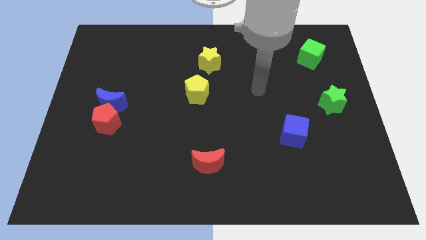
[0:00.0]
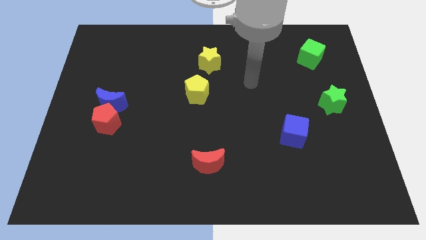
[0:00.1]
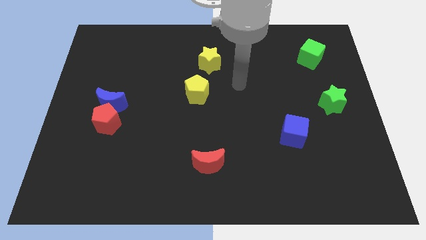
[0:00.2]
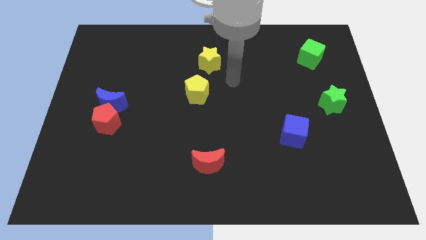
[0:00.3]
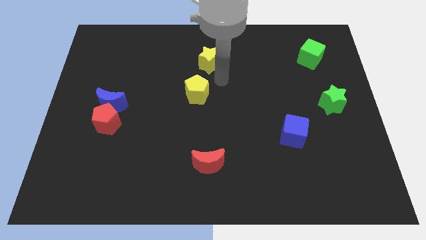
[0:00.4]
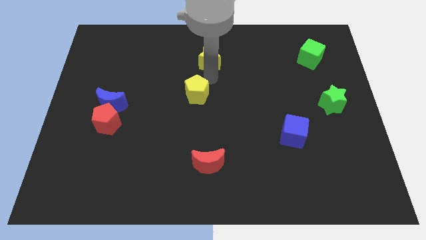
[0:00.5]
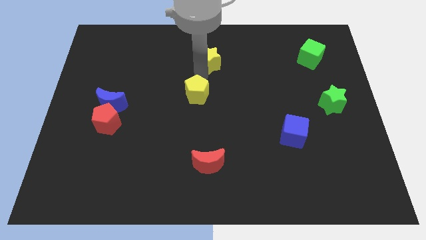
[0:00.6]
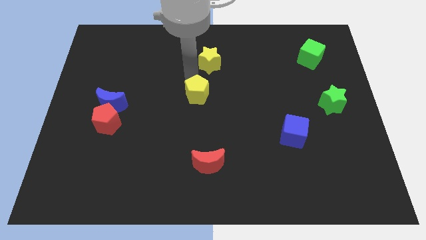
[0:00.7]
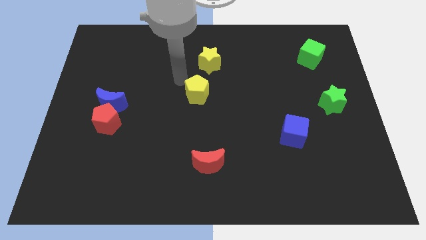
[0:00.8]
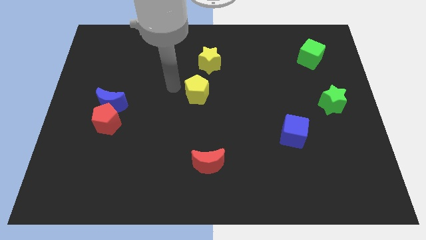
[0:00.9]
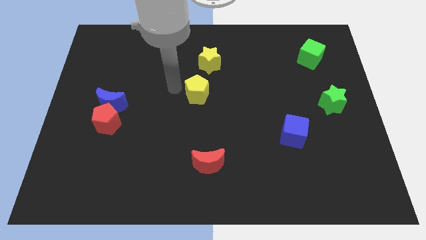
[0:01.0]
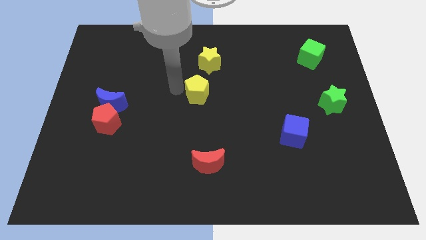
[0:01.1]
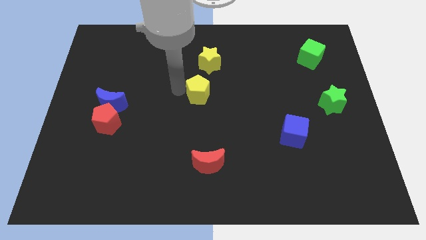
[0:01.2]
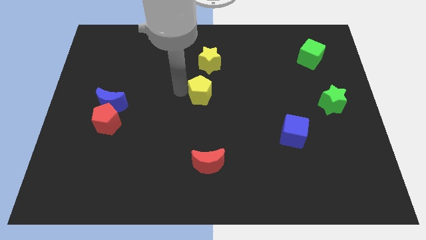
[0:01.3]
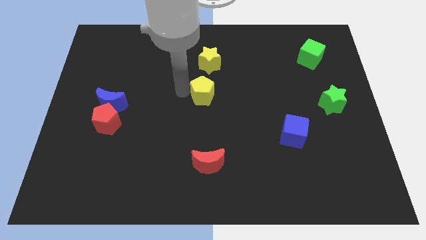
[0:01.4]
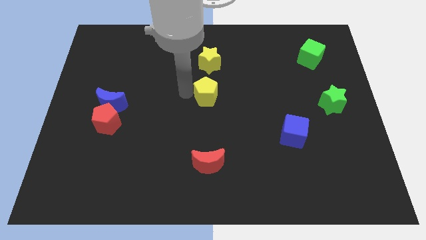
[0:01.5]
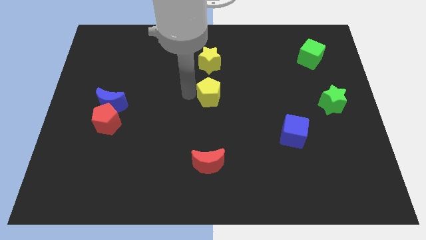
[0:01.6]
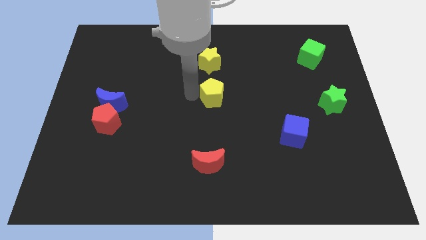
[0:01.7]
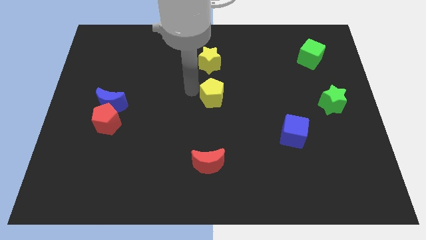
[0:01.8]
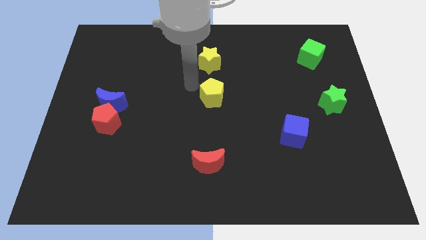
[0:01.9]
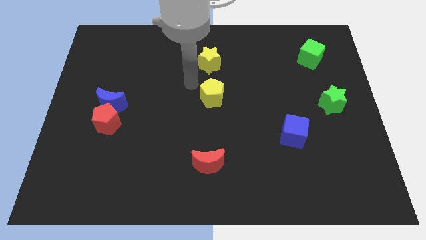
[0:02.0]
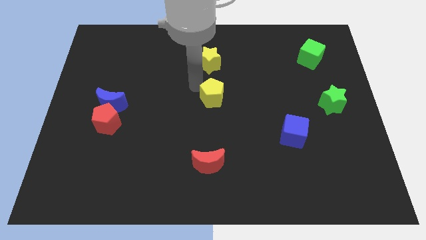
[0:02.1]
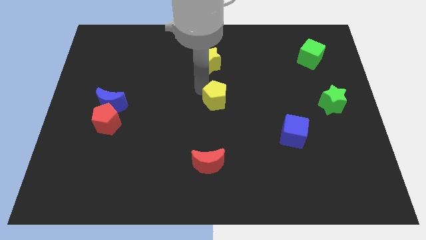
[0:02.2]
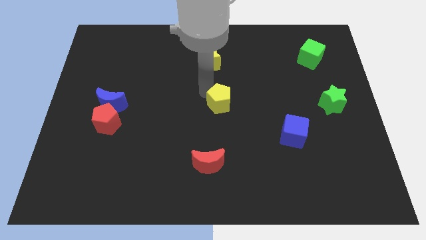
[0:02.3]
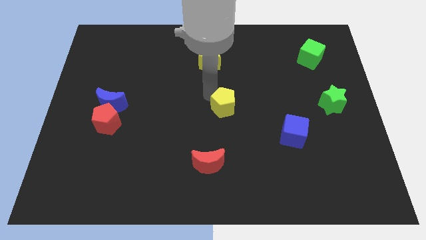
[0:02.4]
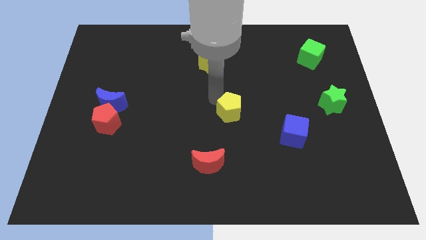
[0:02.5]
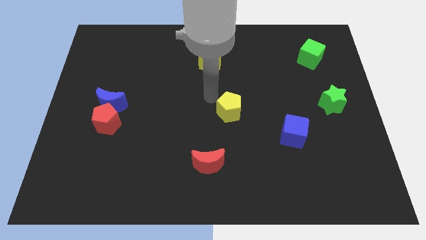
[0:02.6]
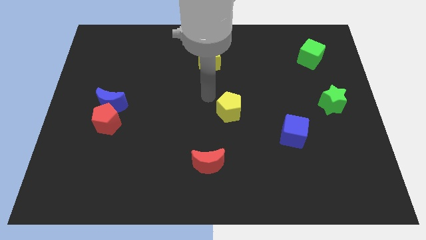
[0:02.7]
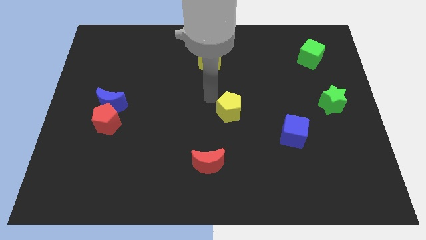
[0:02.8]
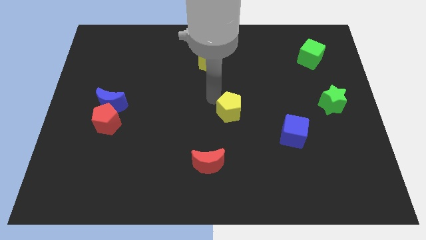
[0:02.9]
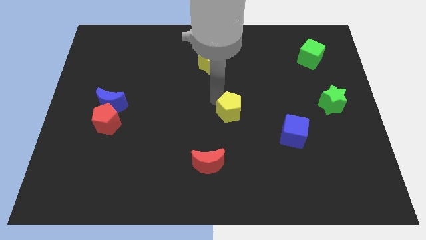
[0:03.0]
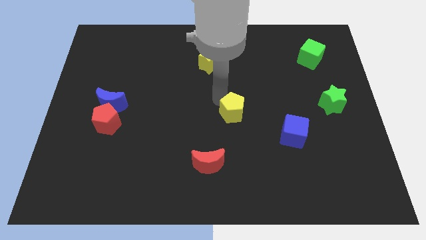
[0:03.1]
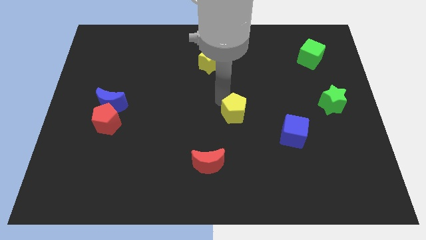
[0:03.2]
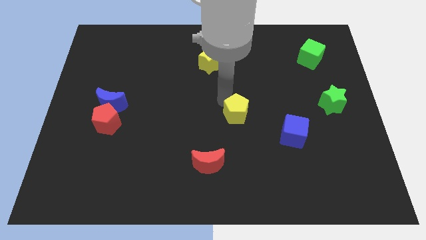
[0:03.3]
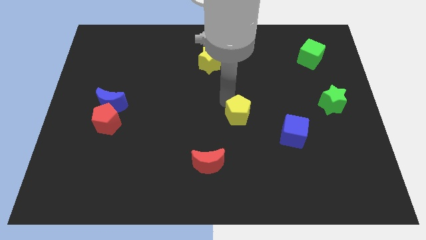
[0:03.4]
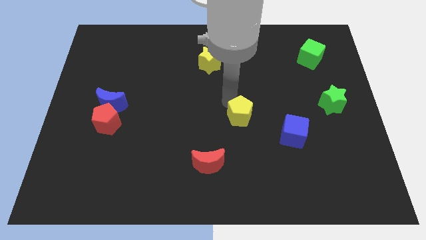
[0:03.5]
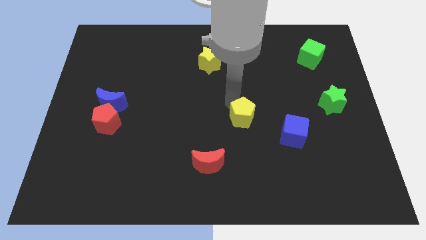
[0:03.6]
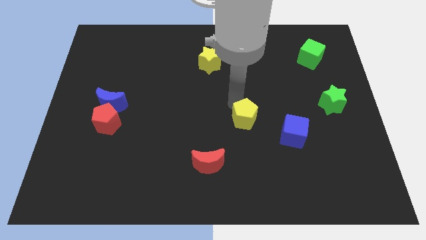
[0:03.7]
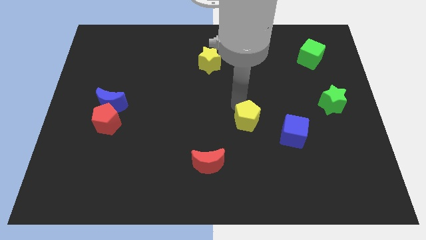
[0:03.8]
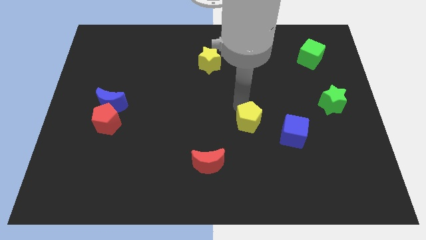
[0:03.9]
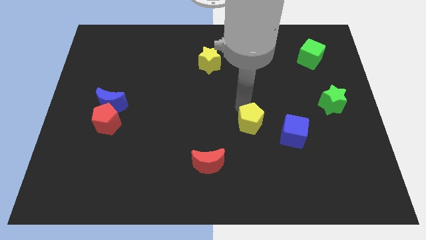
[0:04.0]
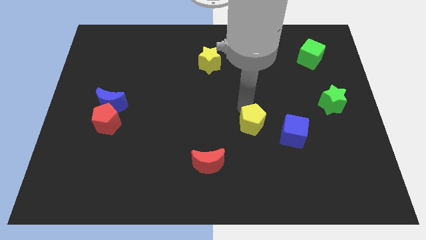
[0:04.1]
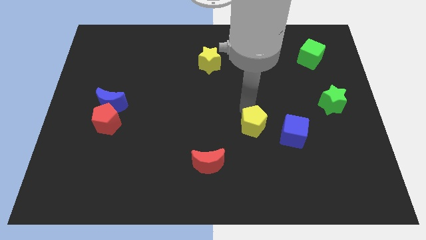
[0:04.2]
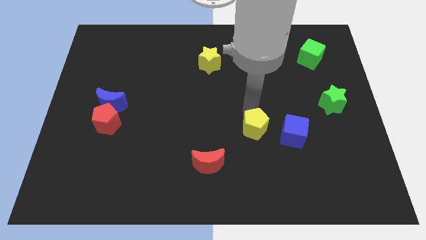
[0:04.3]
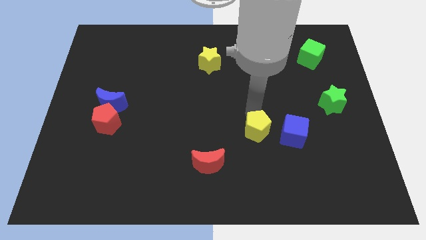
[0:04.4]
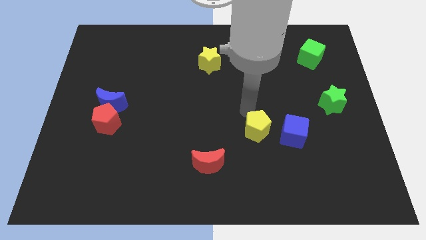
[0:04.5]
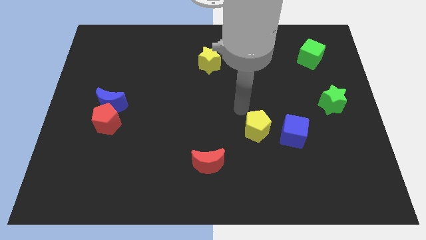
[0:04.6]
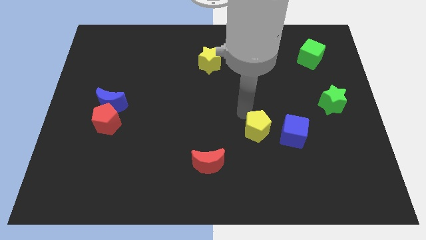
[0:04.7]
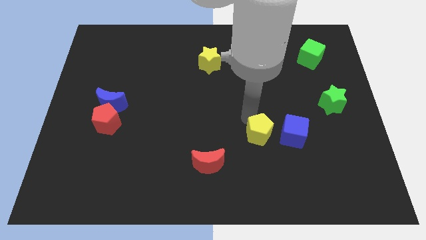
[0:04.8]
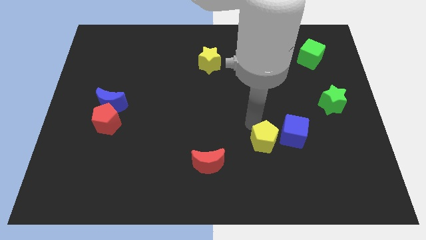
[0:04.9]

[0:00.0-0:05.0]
move the yellow pentagon down and then right

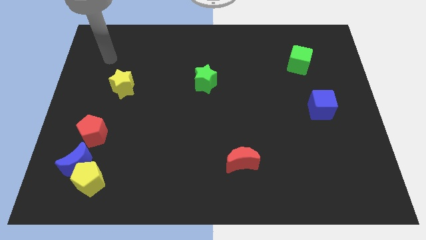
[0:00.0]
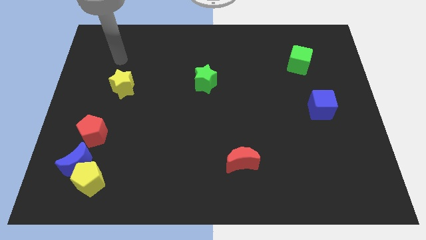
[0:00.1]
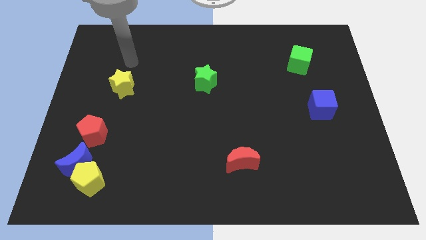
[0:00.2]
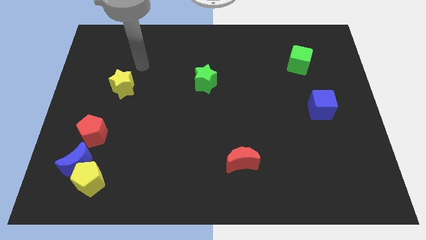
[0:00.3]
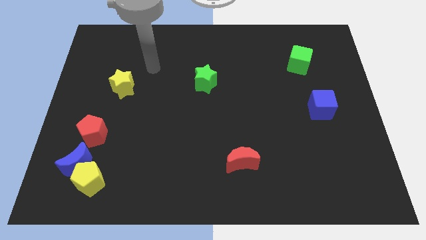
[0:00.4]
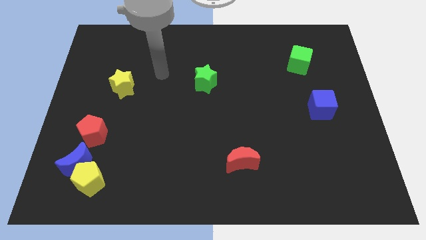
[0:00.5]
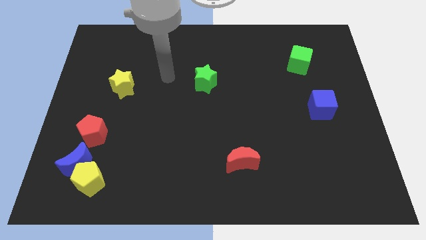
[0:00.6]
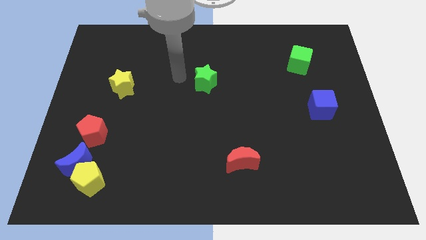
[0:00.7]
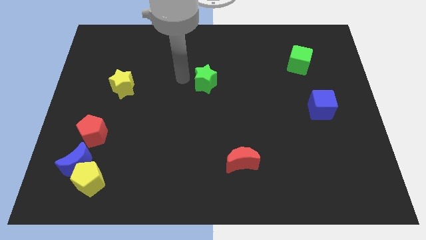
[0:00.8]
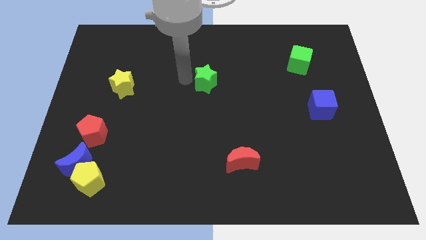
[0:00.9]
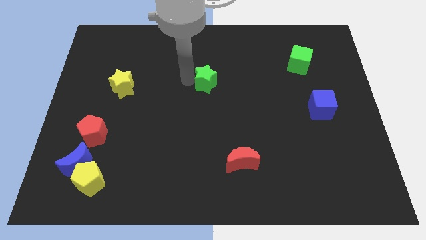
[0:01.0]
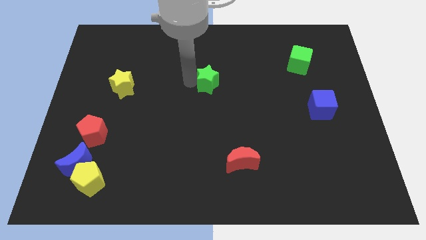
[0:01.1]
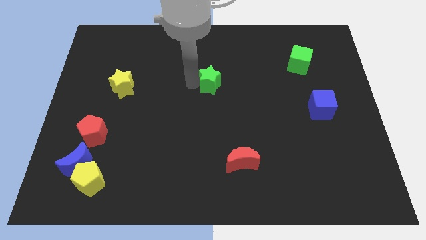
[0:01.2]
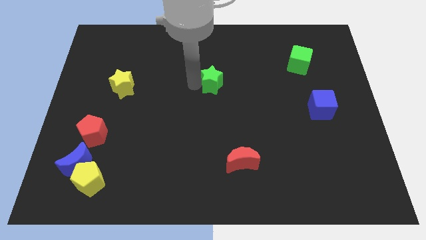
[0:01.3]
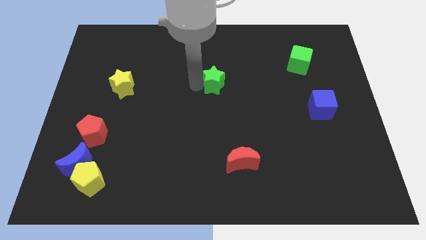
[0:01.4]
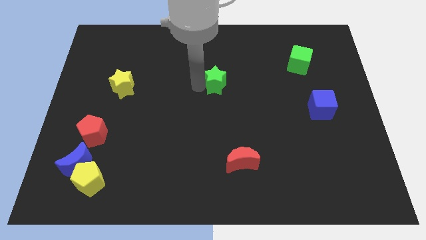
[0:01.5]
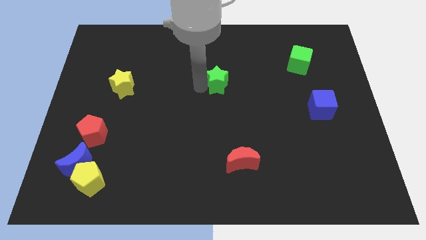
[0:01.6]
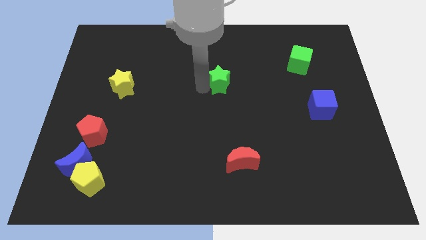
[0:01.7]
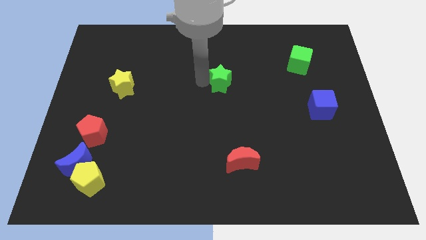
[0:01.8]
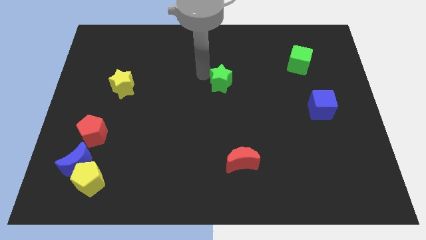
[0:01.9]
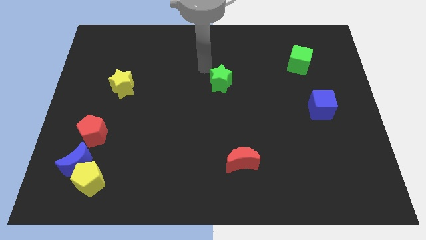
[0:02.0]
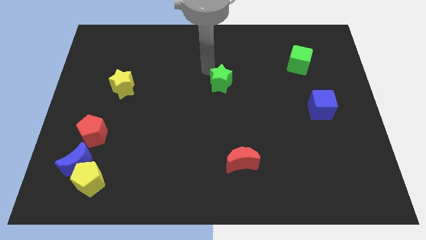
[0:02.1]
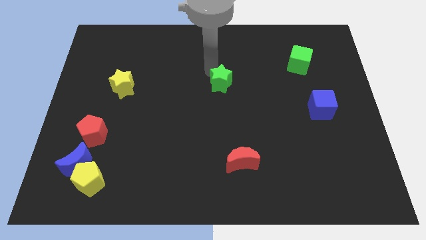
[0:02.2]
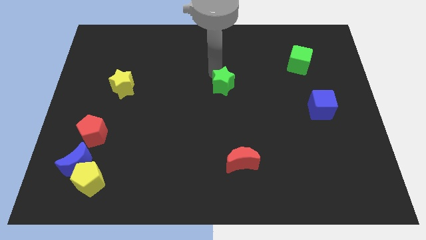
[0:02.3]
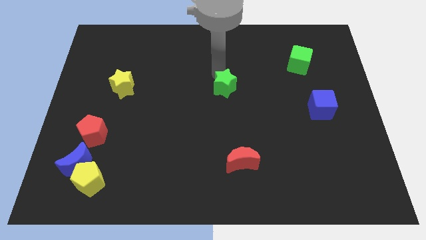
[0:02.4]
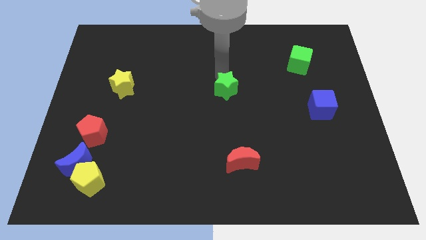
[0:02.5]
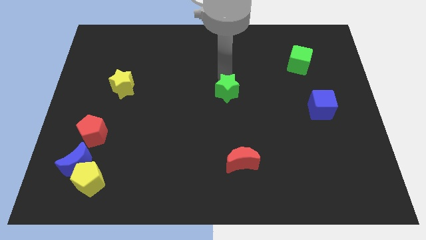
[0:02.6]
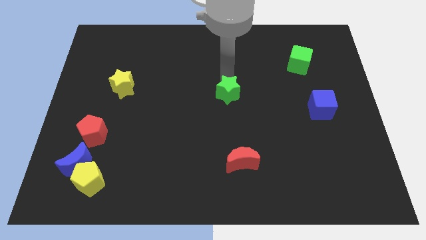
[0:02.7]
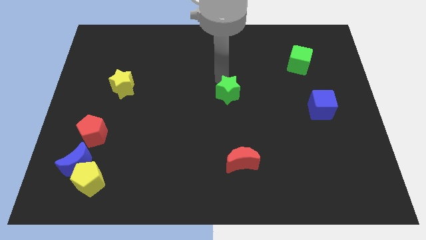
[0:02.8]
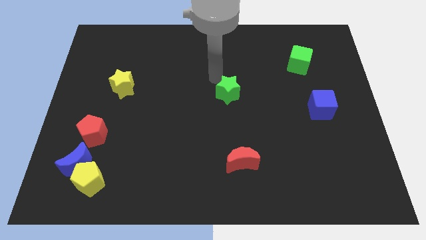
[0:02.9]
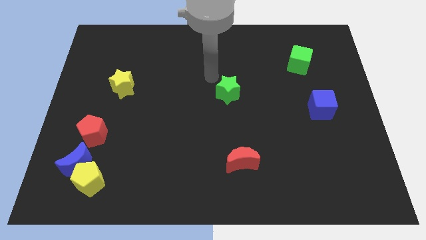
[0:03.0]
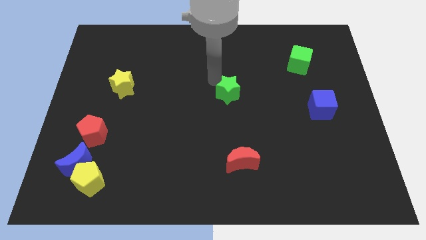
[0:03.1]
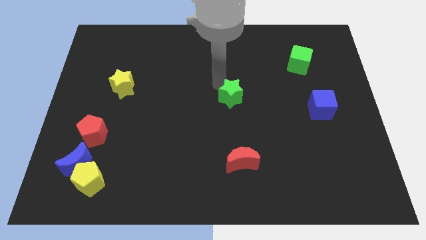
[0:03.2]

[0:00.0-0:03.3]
slightly move the green star down and to the right diagonally

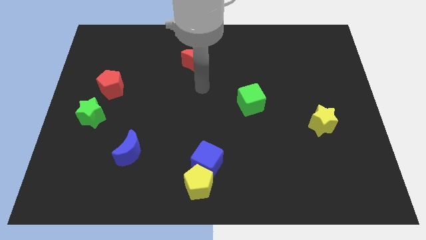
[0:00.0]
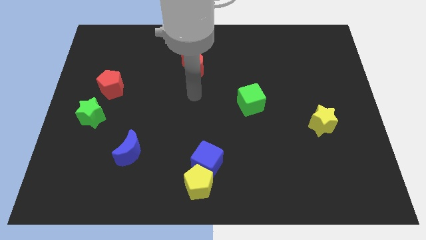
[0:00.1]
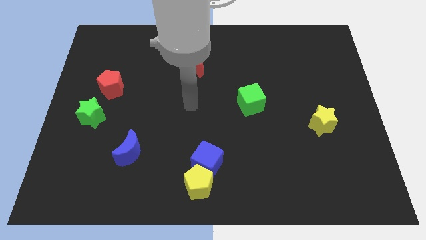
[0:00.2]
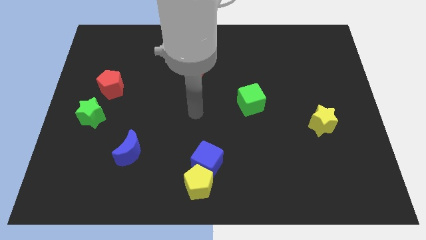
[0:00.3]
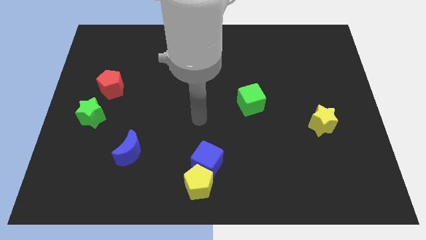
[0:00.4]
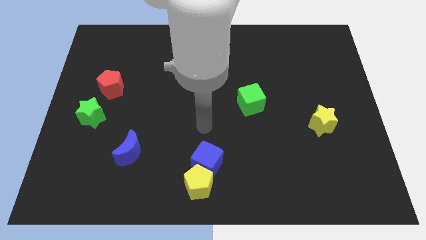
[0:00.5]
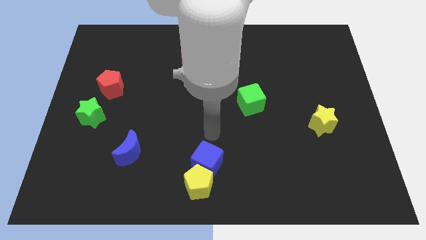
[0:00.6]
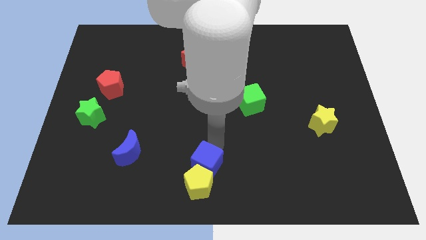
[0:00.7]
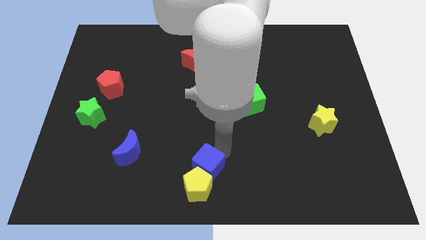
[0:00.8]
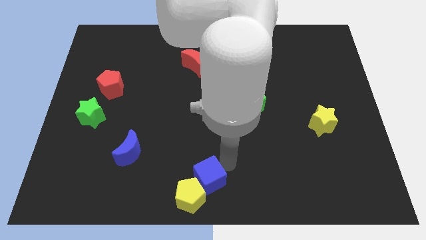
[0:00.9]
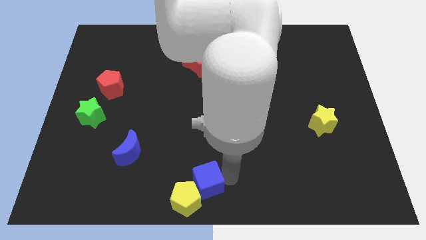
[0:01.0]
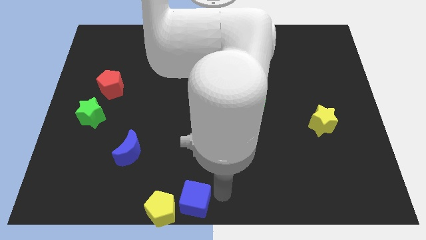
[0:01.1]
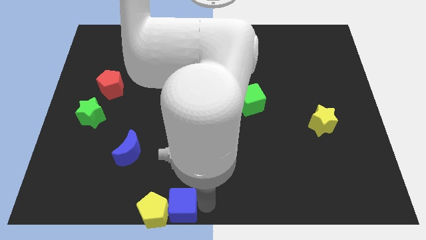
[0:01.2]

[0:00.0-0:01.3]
slide the yellow pentagon a bit to the left
